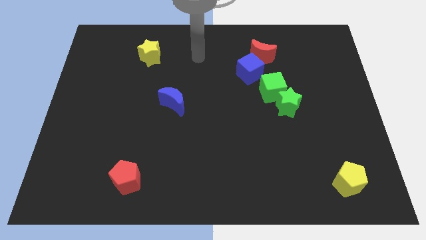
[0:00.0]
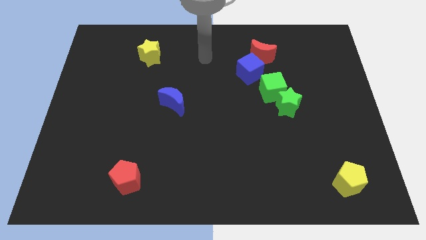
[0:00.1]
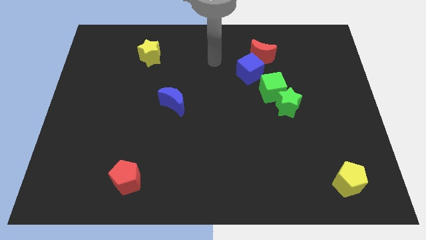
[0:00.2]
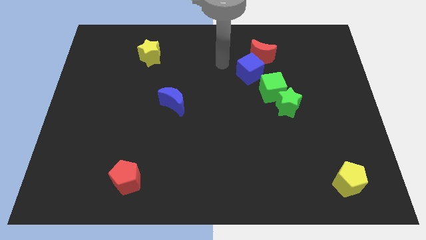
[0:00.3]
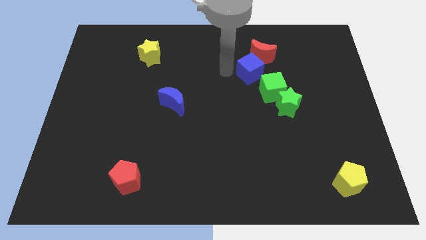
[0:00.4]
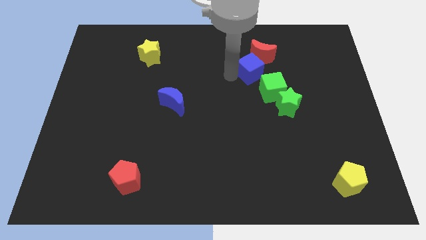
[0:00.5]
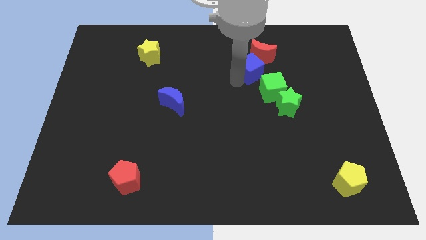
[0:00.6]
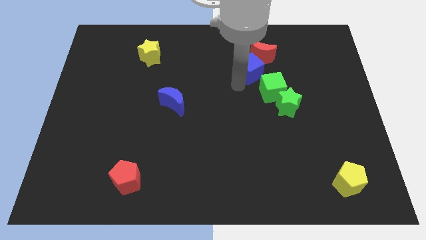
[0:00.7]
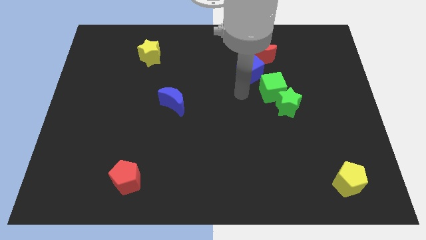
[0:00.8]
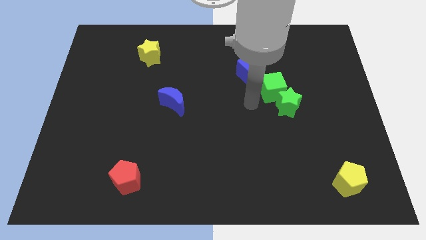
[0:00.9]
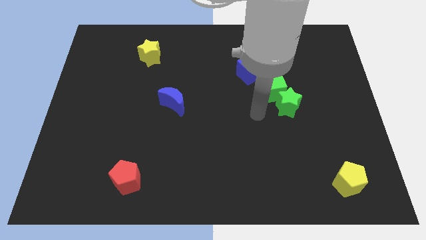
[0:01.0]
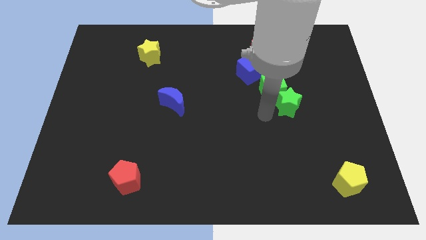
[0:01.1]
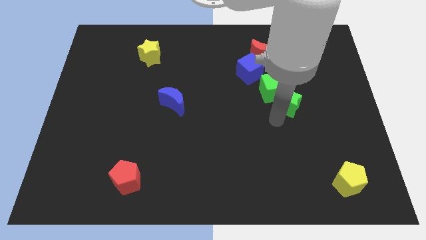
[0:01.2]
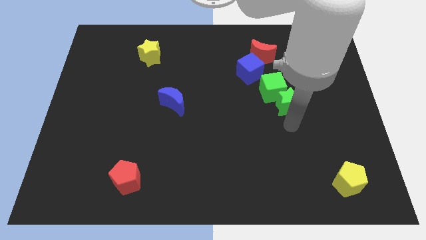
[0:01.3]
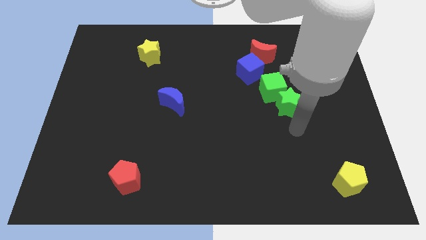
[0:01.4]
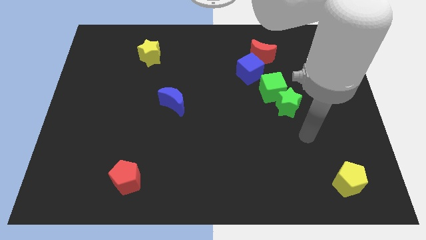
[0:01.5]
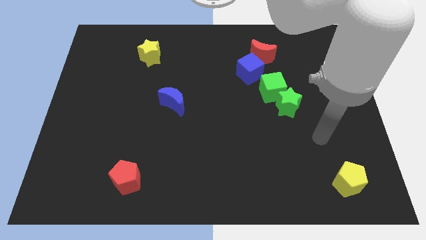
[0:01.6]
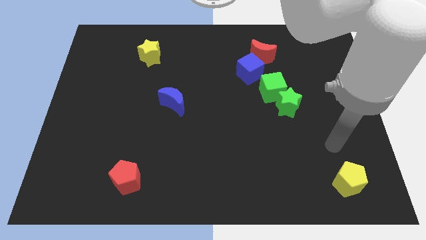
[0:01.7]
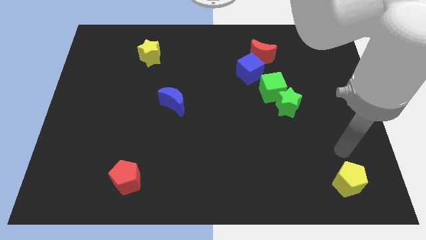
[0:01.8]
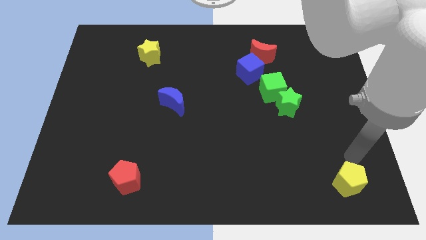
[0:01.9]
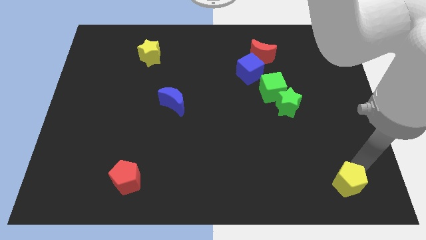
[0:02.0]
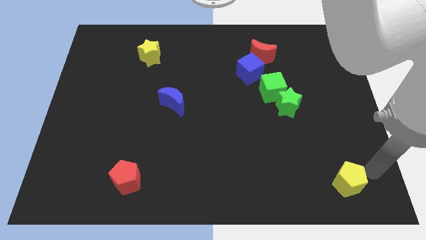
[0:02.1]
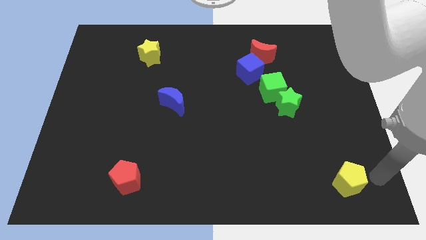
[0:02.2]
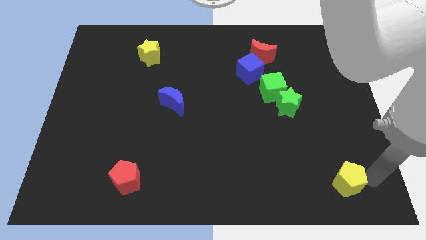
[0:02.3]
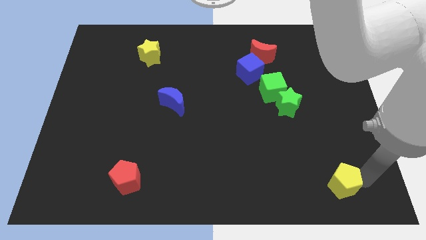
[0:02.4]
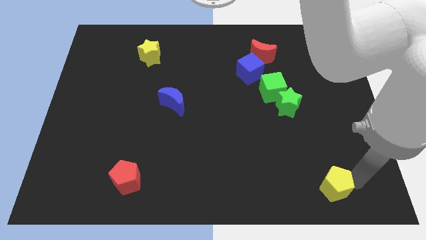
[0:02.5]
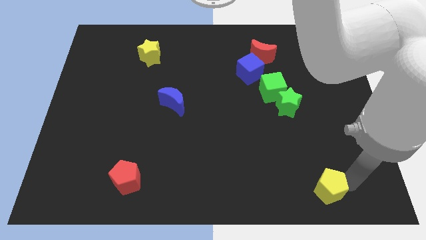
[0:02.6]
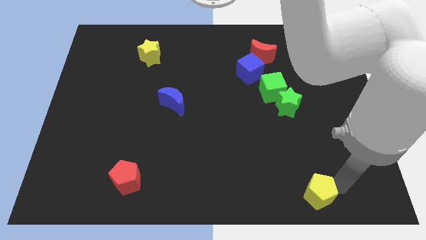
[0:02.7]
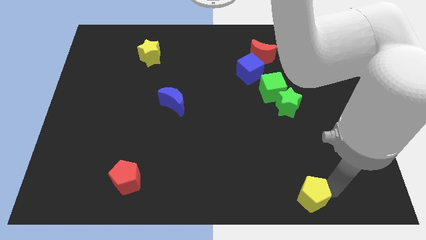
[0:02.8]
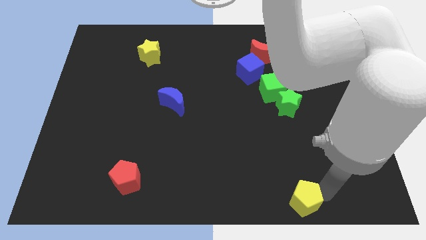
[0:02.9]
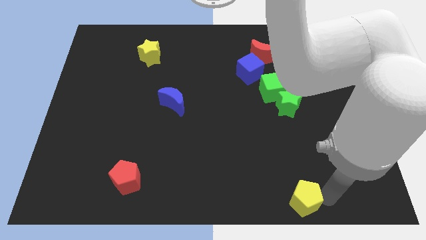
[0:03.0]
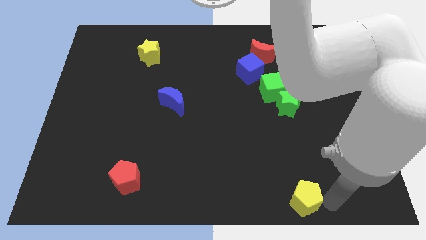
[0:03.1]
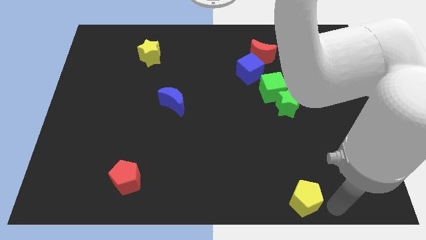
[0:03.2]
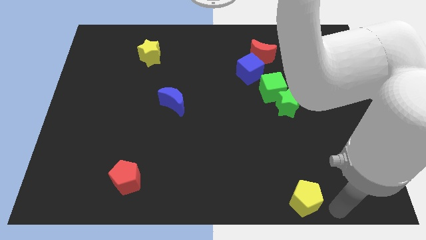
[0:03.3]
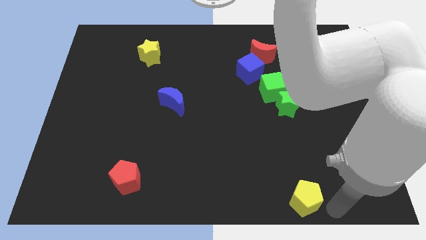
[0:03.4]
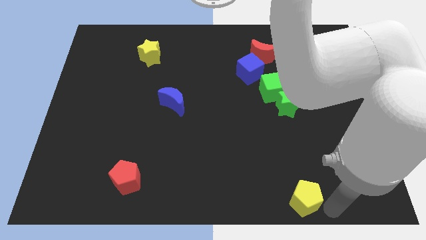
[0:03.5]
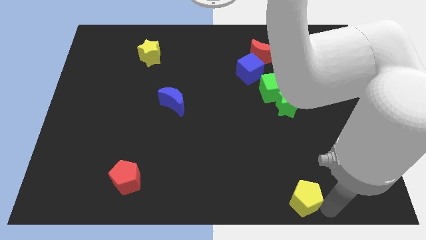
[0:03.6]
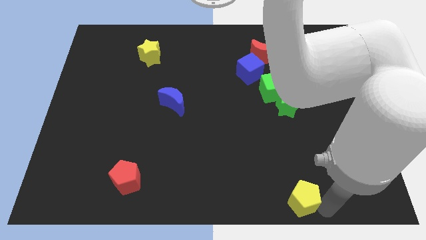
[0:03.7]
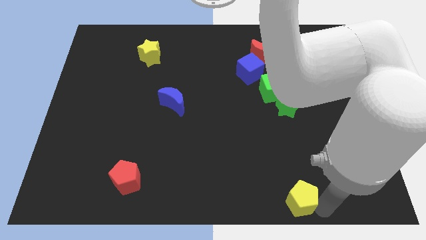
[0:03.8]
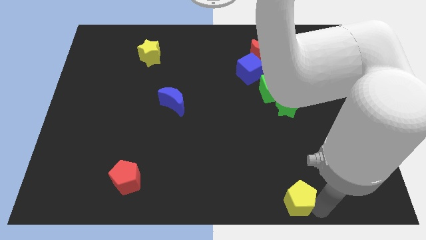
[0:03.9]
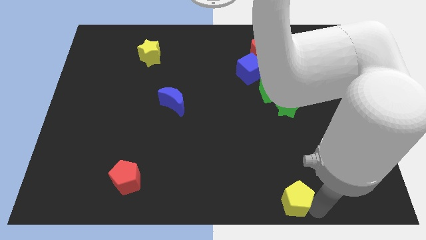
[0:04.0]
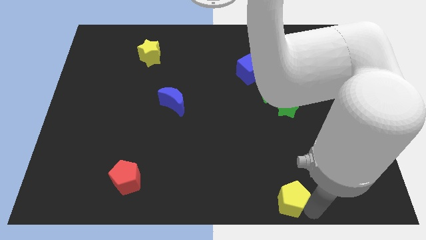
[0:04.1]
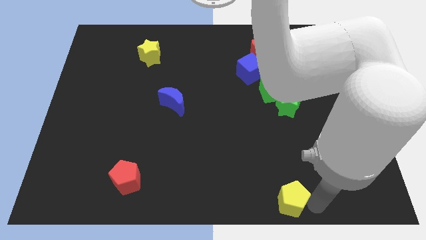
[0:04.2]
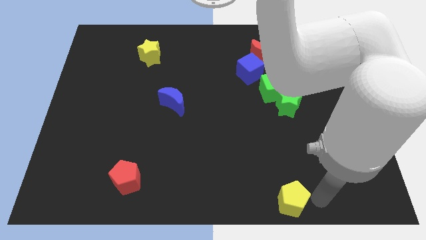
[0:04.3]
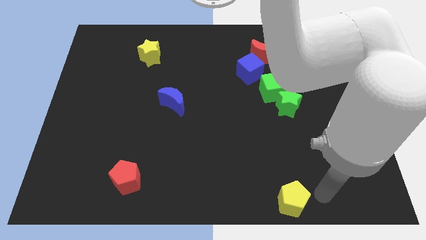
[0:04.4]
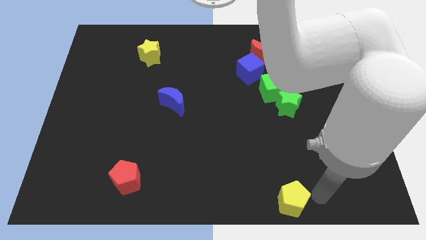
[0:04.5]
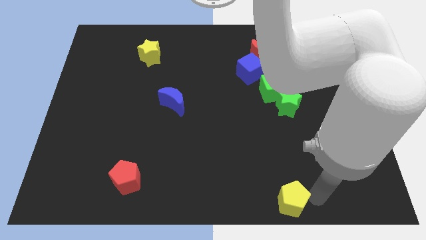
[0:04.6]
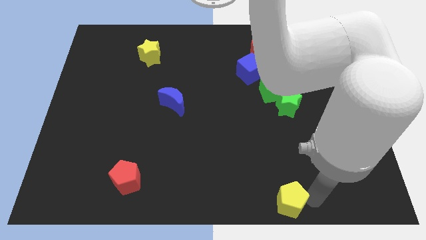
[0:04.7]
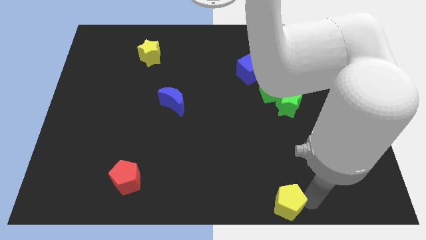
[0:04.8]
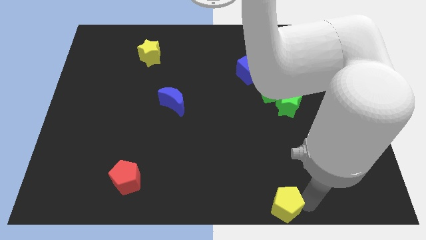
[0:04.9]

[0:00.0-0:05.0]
move the yellow pentagon to the bottom

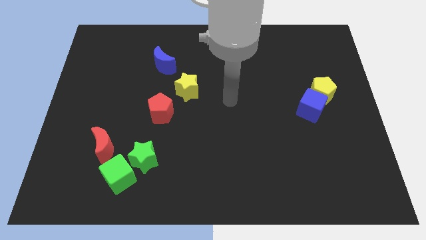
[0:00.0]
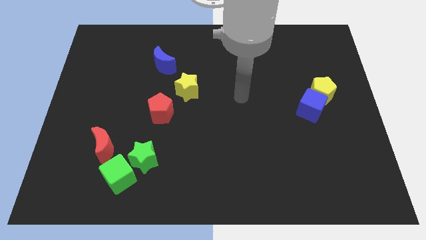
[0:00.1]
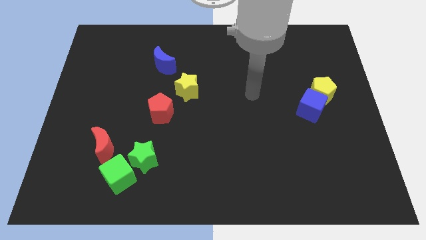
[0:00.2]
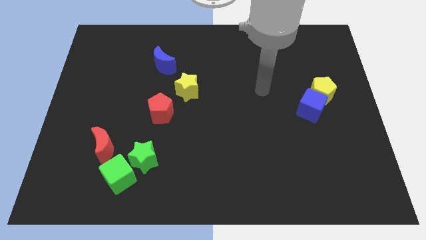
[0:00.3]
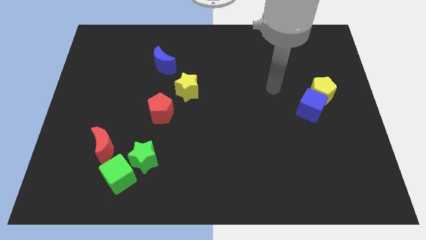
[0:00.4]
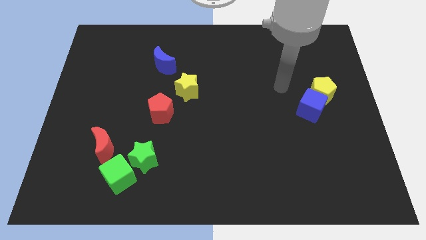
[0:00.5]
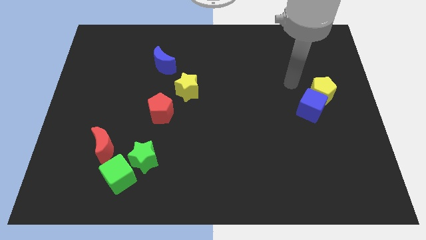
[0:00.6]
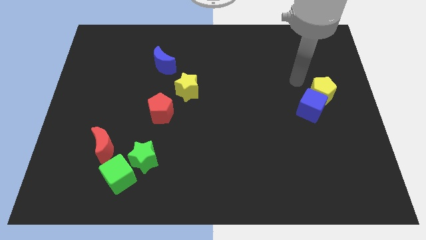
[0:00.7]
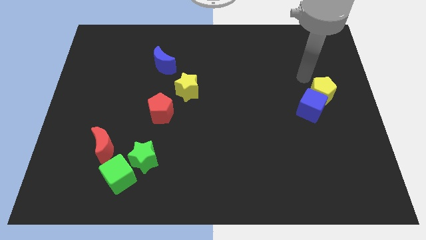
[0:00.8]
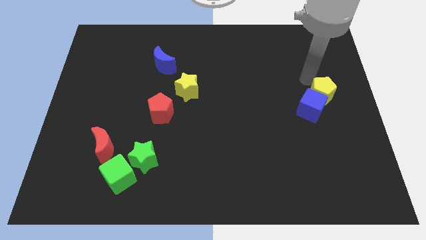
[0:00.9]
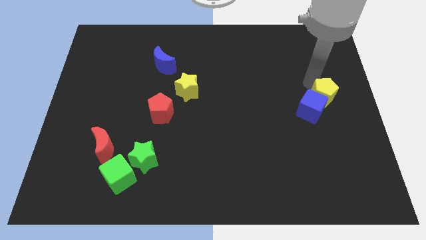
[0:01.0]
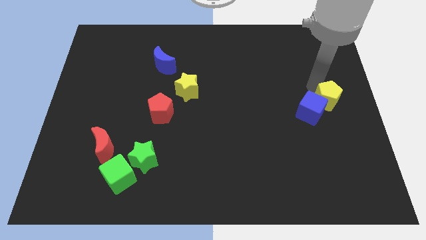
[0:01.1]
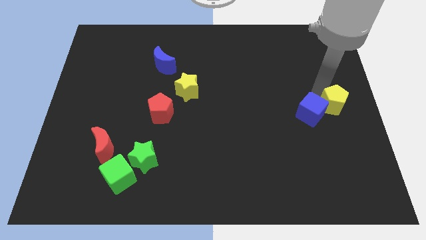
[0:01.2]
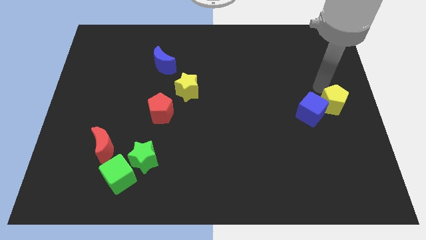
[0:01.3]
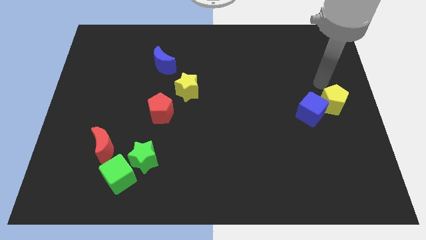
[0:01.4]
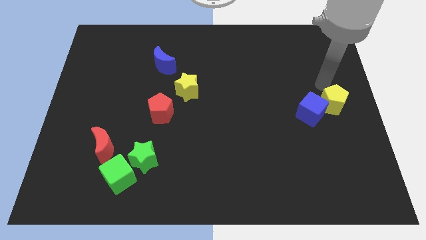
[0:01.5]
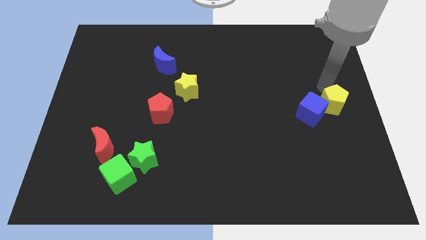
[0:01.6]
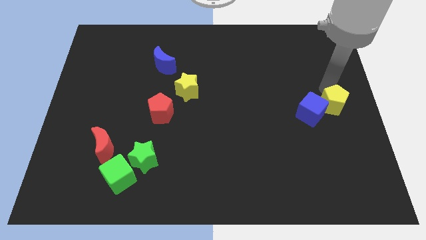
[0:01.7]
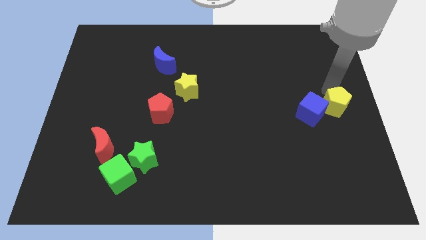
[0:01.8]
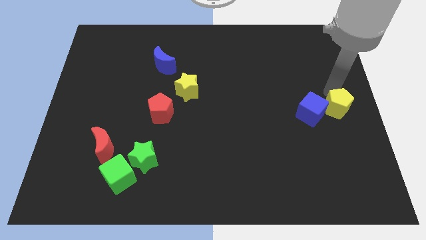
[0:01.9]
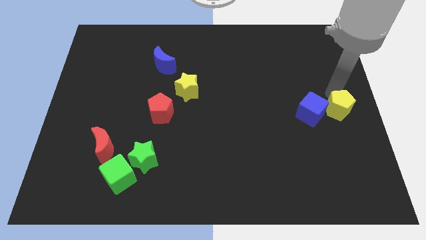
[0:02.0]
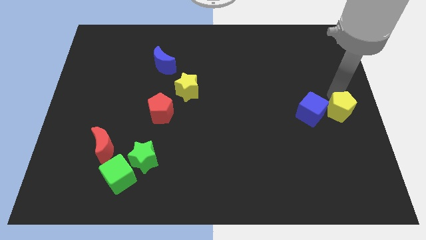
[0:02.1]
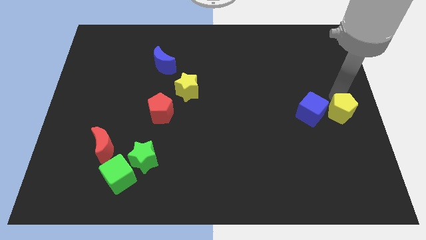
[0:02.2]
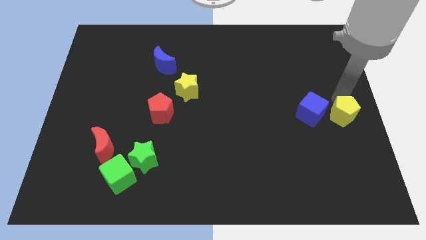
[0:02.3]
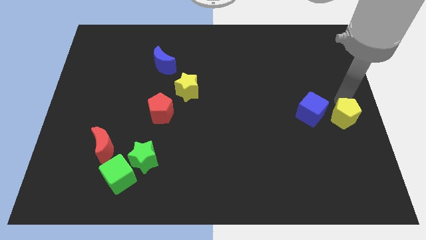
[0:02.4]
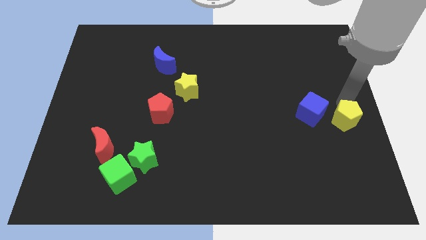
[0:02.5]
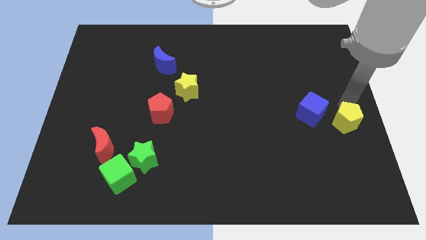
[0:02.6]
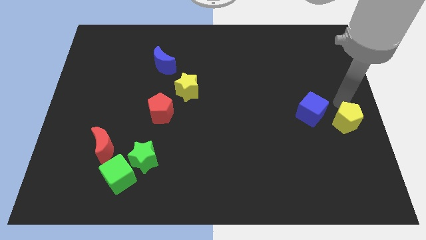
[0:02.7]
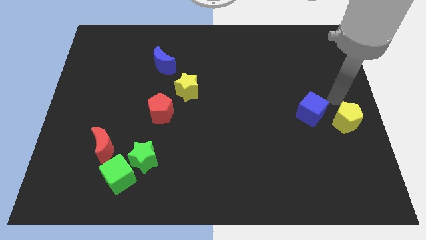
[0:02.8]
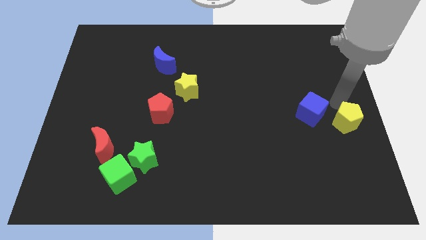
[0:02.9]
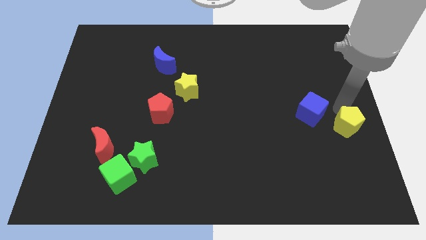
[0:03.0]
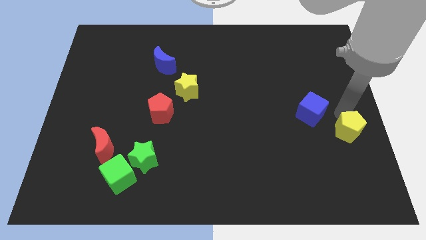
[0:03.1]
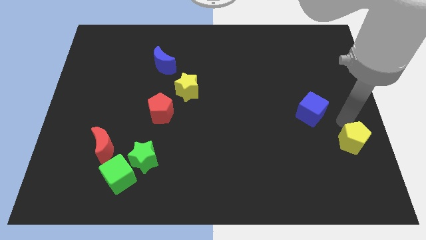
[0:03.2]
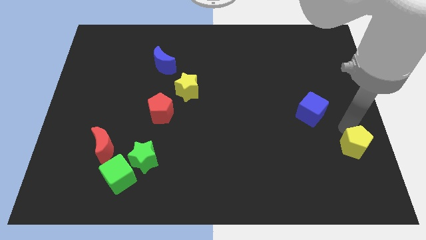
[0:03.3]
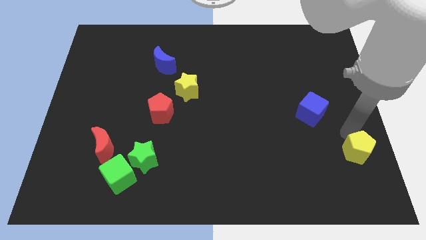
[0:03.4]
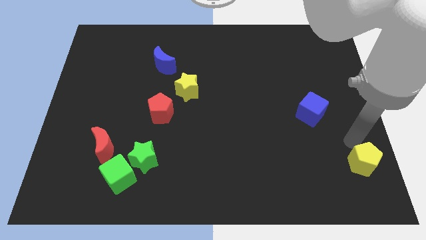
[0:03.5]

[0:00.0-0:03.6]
move the yellow pentagon to the lower right corner
